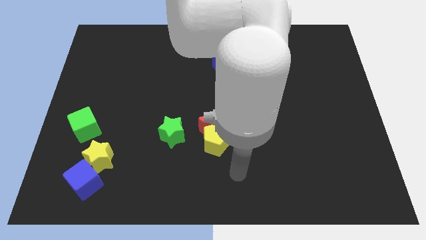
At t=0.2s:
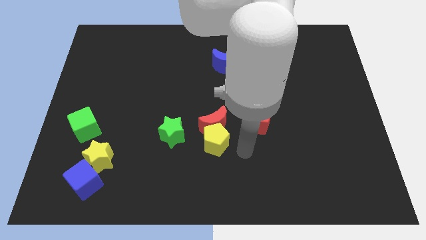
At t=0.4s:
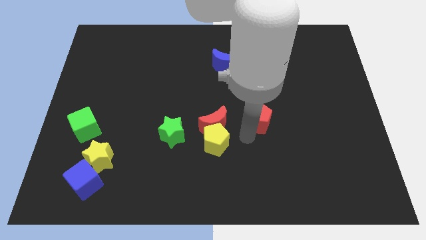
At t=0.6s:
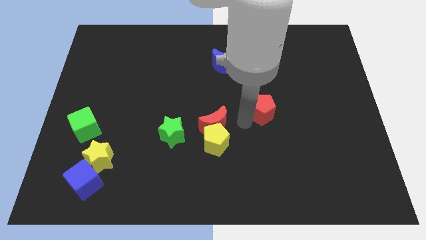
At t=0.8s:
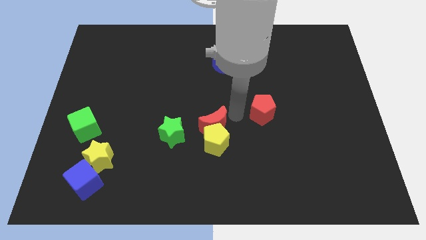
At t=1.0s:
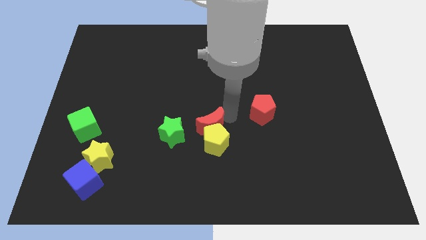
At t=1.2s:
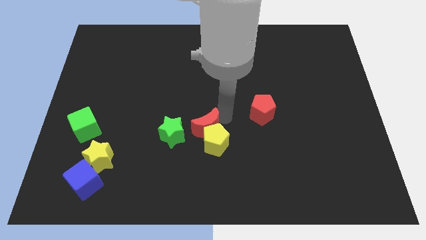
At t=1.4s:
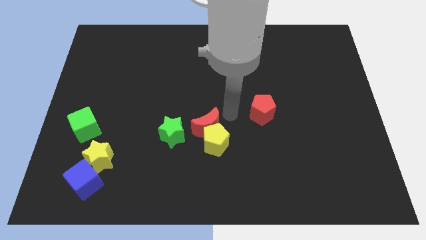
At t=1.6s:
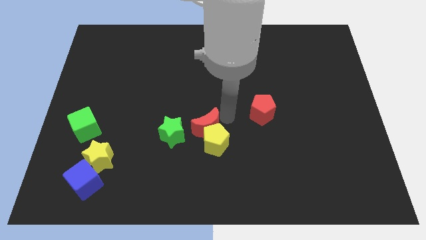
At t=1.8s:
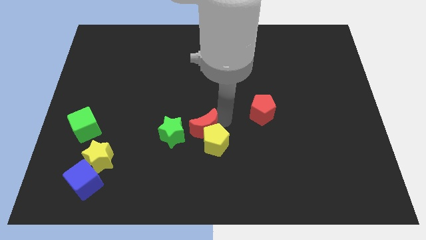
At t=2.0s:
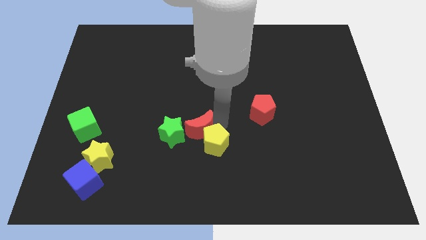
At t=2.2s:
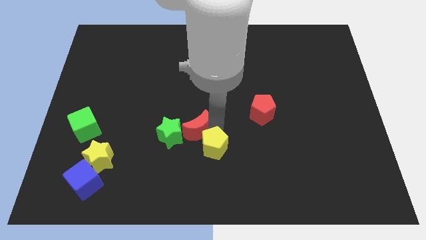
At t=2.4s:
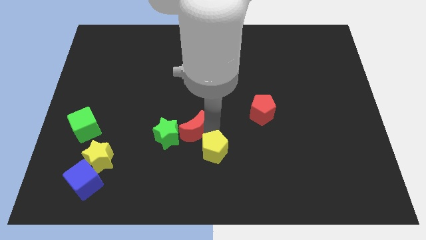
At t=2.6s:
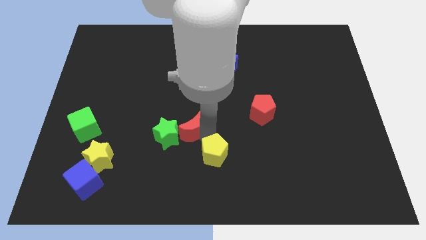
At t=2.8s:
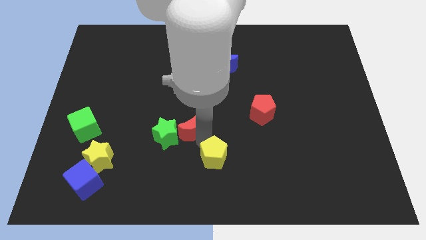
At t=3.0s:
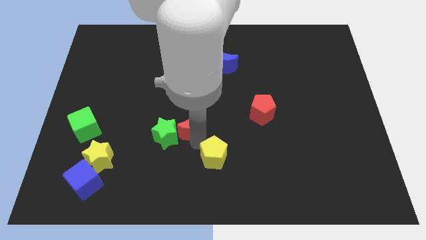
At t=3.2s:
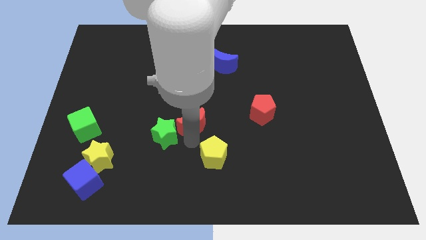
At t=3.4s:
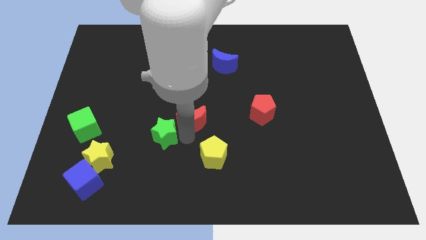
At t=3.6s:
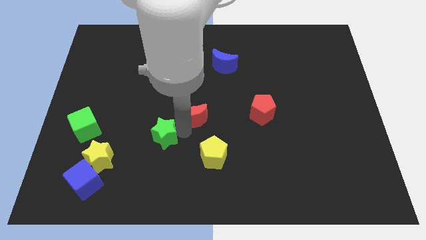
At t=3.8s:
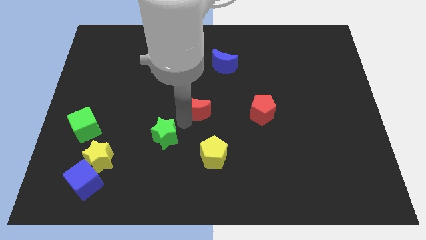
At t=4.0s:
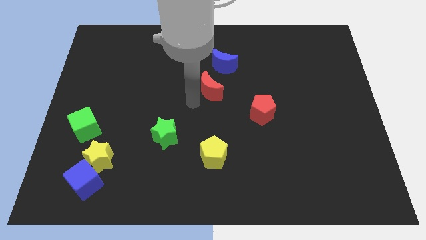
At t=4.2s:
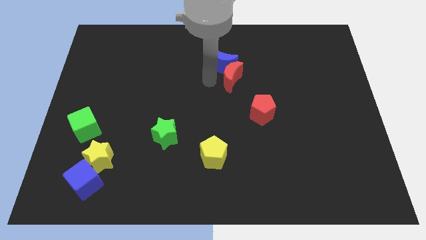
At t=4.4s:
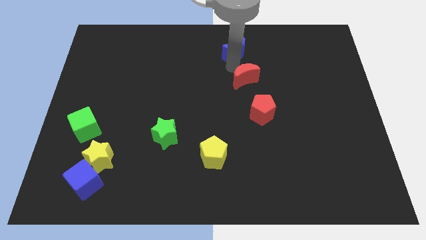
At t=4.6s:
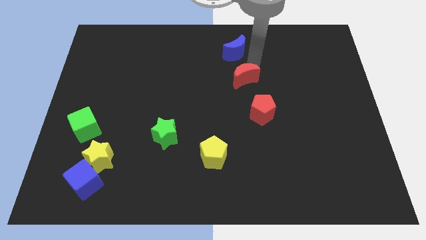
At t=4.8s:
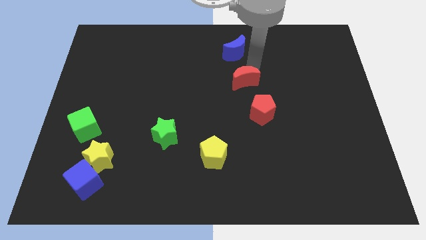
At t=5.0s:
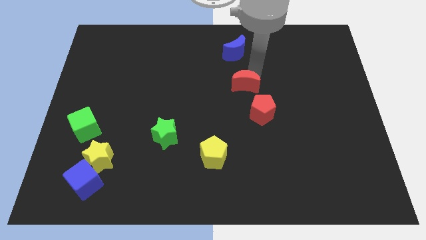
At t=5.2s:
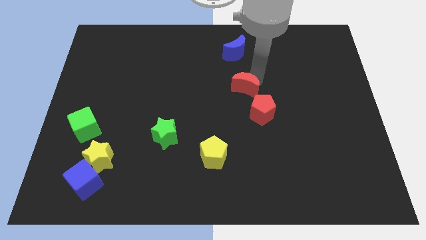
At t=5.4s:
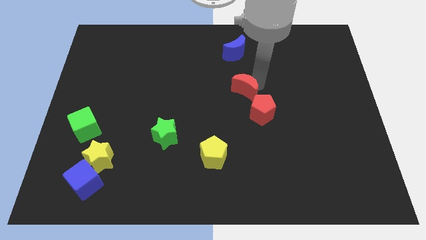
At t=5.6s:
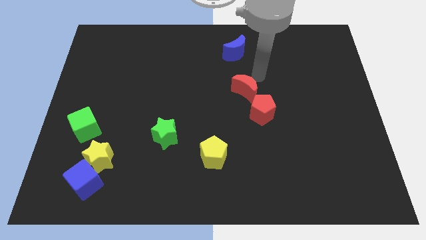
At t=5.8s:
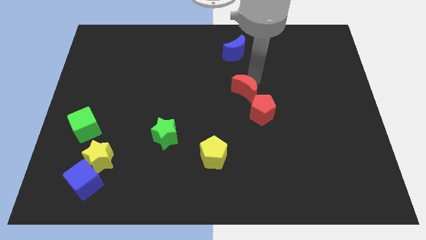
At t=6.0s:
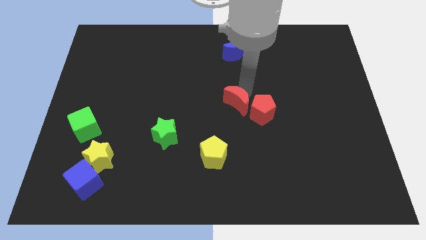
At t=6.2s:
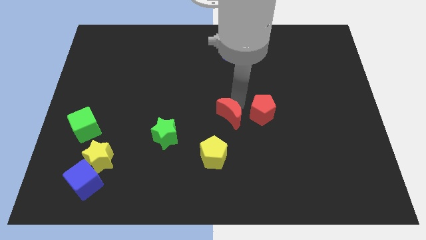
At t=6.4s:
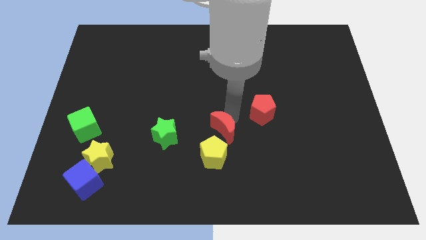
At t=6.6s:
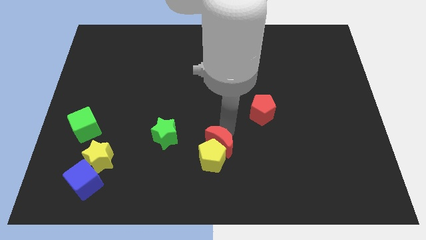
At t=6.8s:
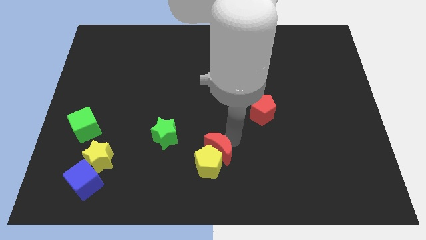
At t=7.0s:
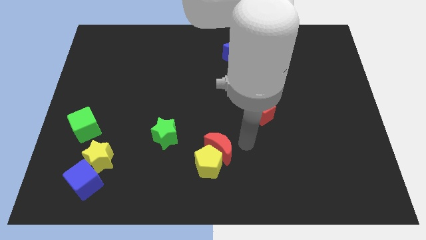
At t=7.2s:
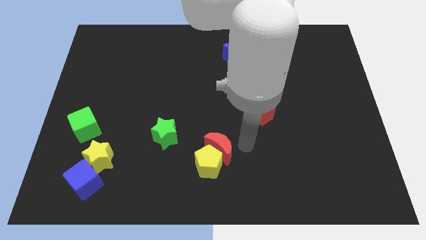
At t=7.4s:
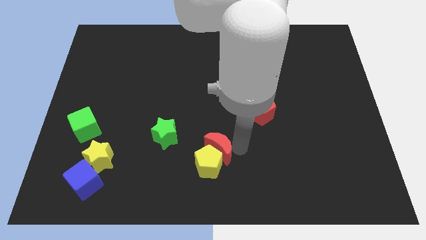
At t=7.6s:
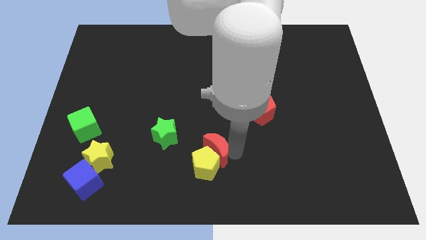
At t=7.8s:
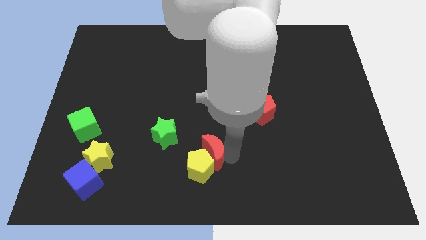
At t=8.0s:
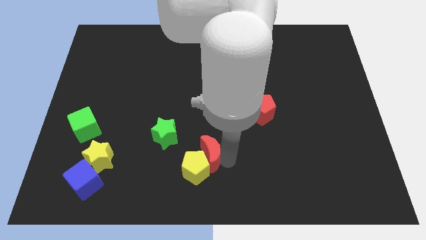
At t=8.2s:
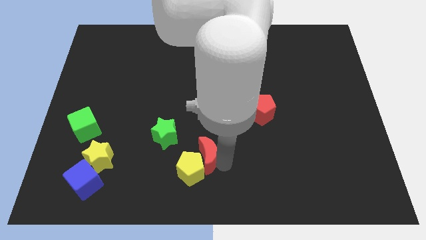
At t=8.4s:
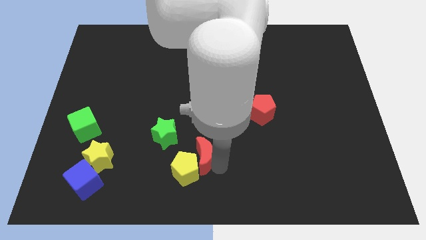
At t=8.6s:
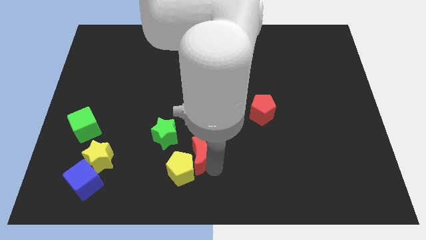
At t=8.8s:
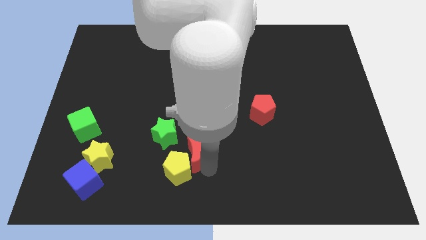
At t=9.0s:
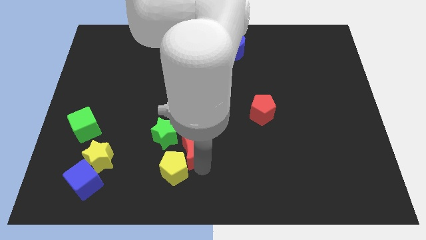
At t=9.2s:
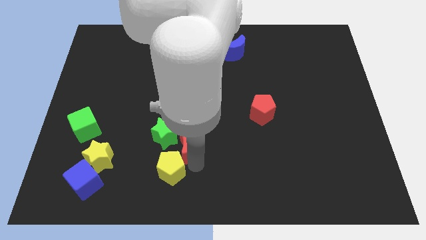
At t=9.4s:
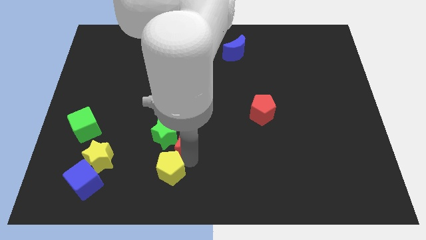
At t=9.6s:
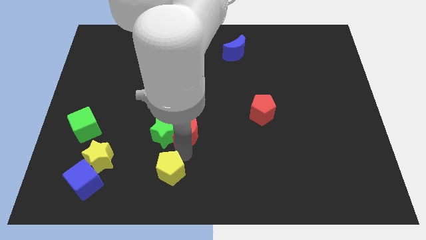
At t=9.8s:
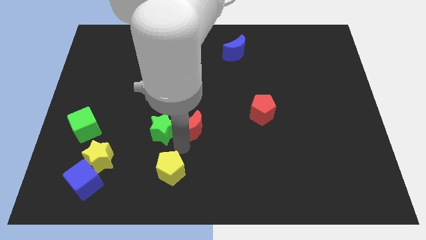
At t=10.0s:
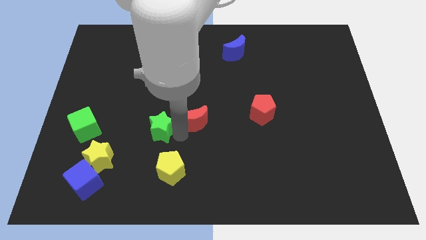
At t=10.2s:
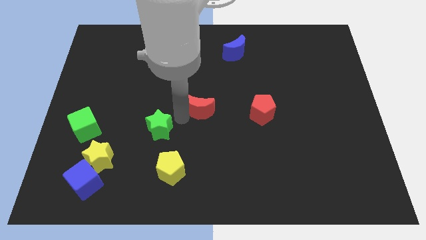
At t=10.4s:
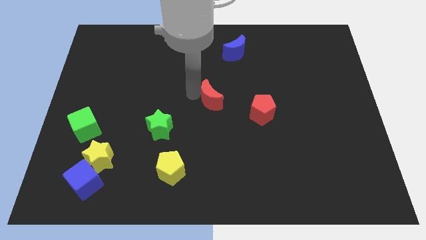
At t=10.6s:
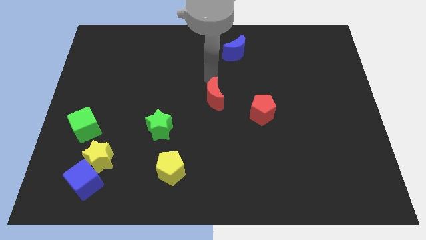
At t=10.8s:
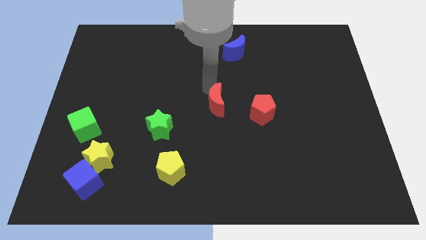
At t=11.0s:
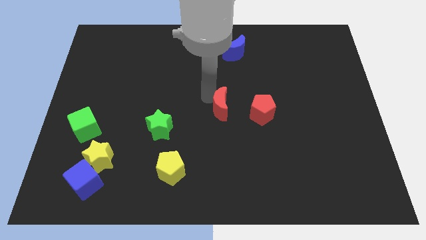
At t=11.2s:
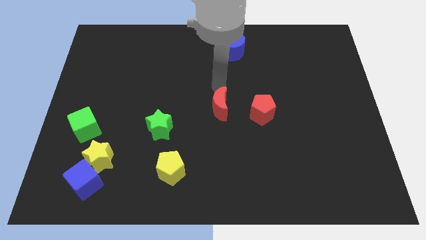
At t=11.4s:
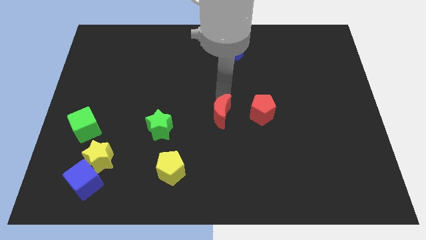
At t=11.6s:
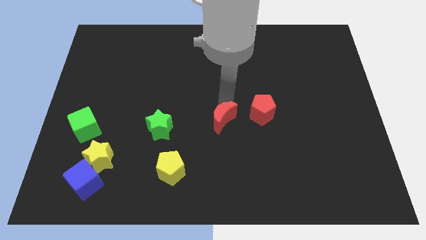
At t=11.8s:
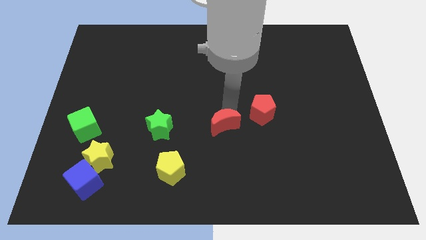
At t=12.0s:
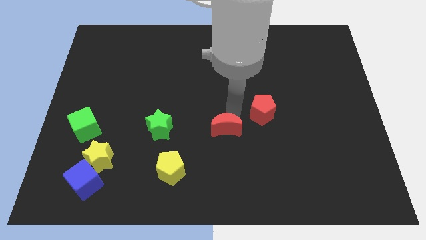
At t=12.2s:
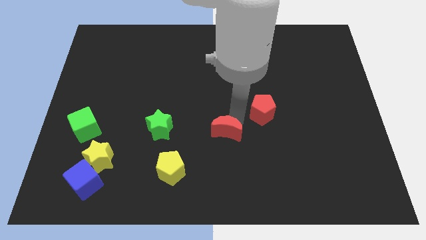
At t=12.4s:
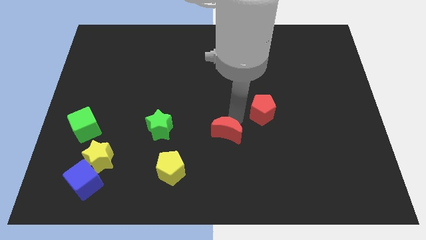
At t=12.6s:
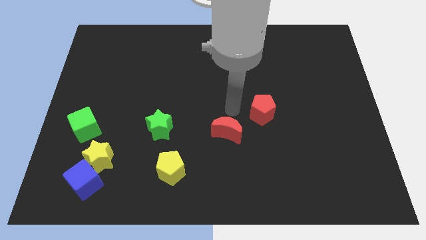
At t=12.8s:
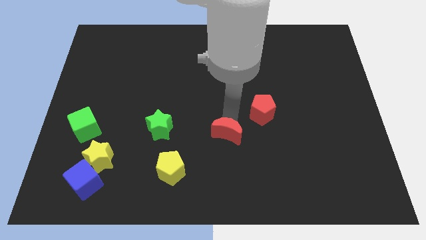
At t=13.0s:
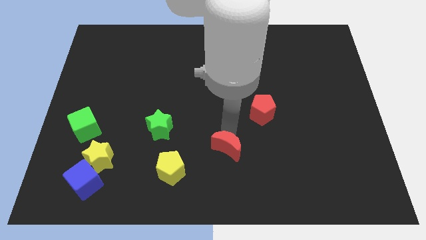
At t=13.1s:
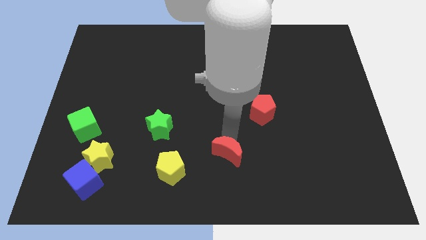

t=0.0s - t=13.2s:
move the red moon down and to the right diagonally slightly

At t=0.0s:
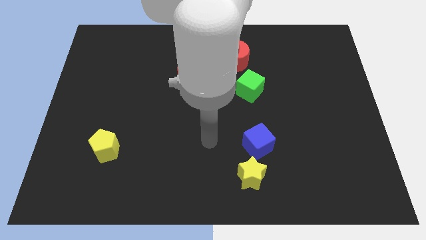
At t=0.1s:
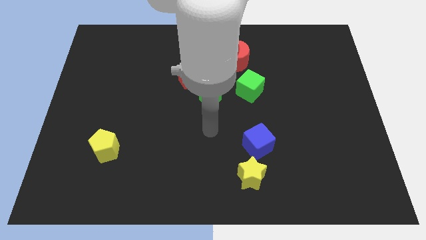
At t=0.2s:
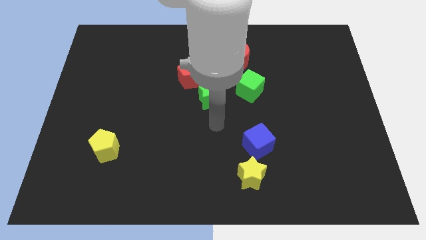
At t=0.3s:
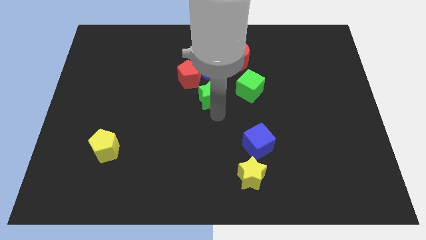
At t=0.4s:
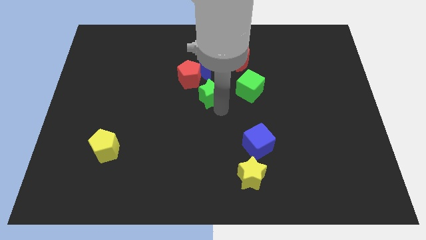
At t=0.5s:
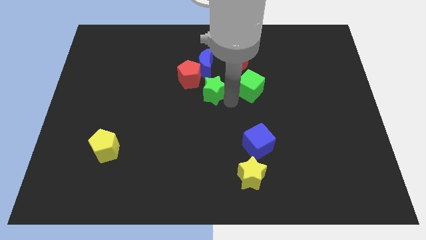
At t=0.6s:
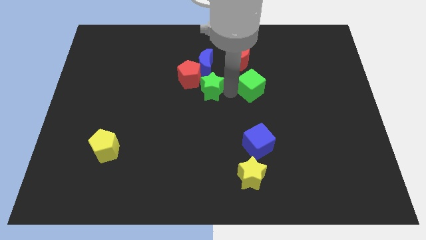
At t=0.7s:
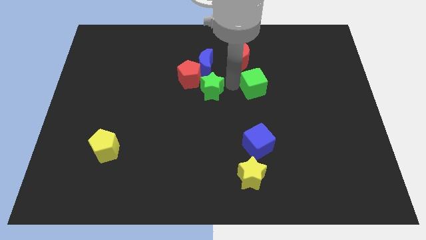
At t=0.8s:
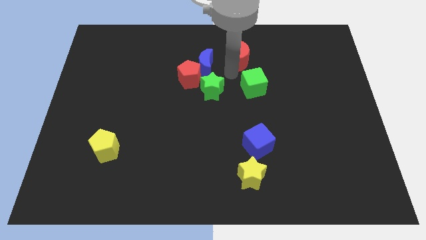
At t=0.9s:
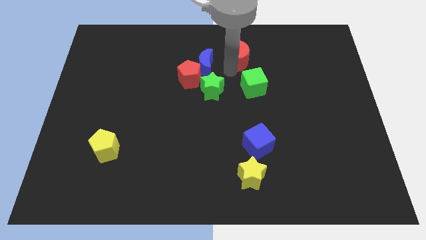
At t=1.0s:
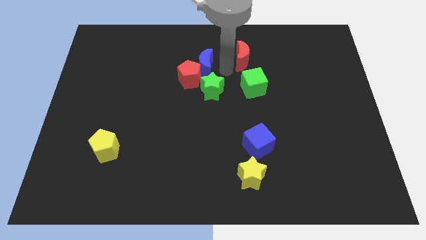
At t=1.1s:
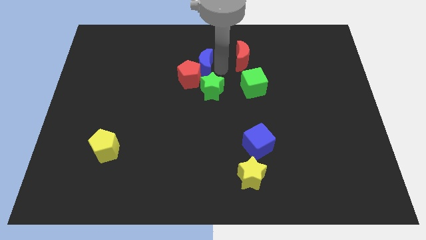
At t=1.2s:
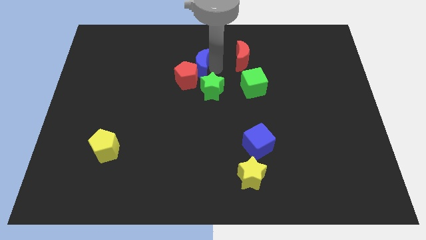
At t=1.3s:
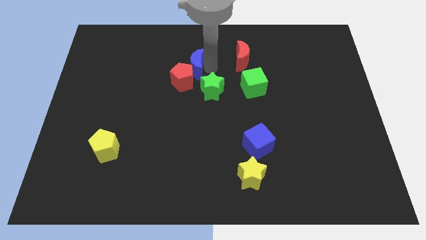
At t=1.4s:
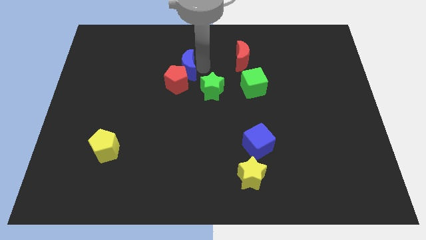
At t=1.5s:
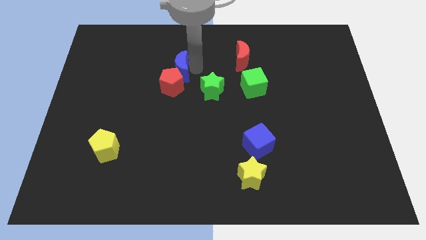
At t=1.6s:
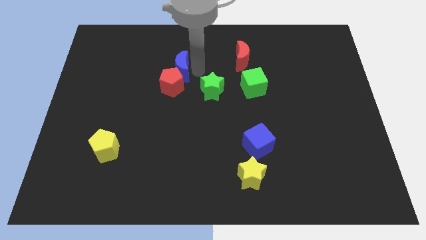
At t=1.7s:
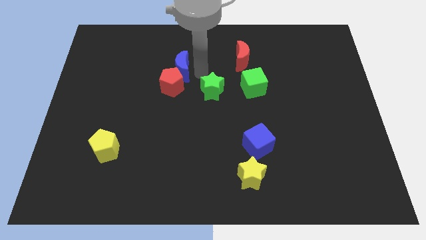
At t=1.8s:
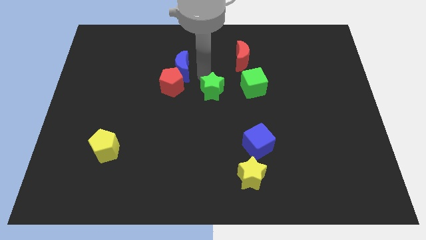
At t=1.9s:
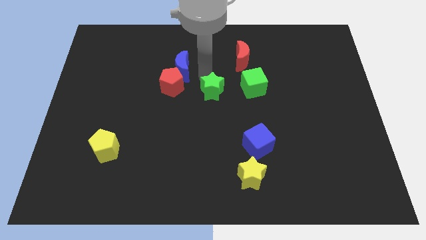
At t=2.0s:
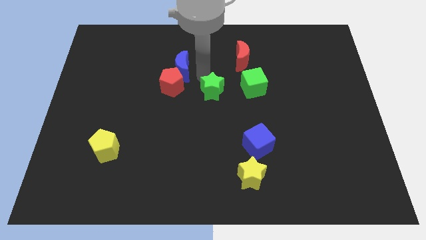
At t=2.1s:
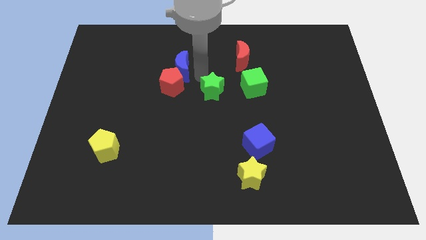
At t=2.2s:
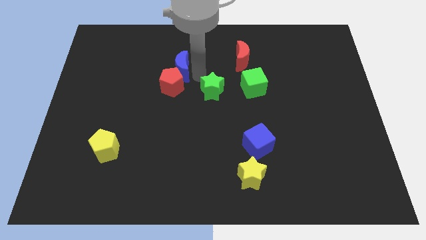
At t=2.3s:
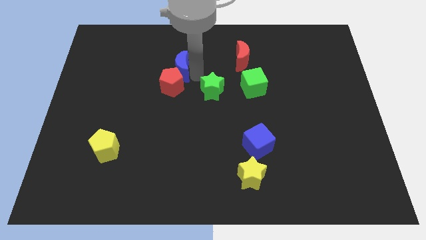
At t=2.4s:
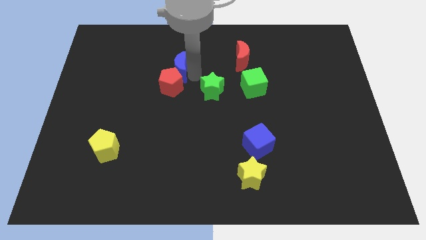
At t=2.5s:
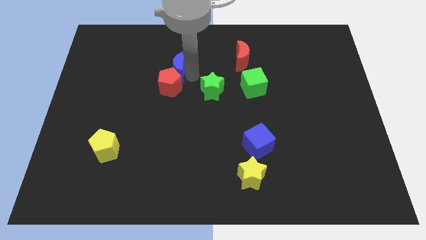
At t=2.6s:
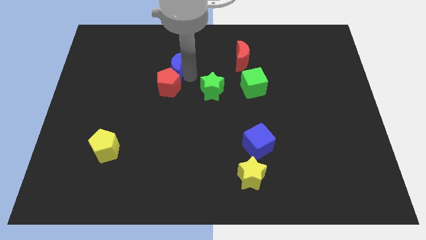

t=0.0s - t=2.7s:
slide the blue moon to the left a bit
